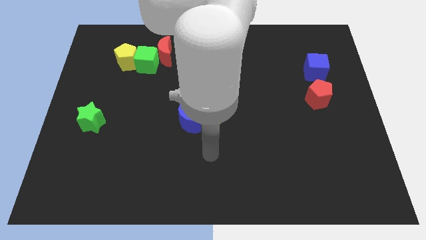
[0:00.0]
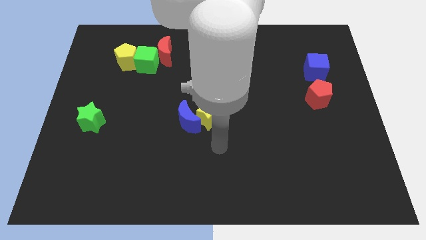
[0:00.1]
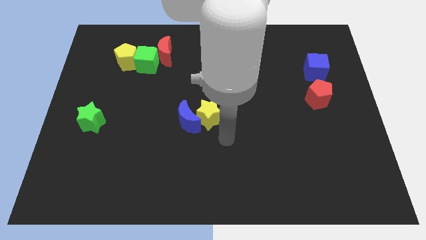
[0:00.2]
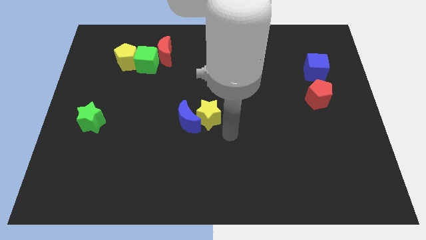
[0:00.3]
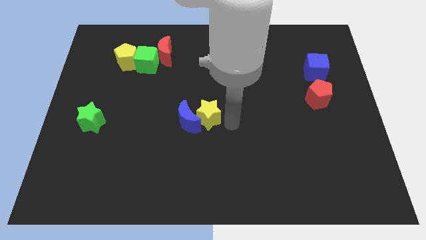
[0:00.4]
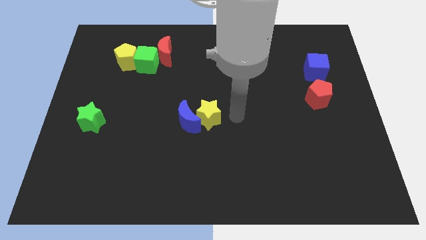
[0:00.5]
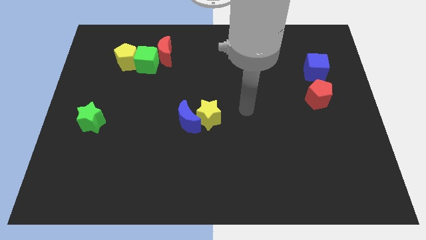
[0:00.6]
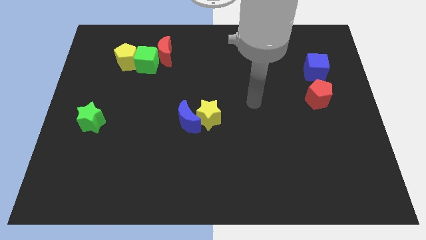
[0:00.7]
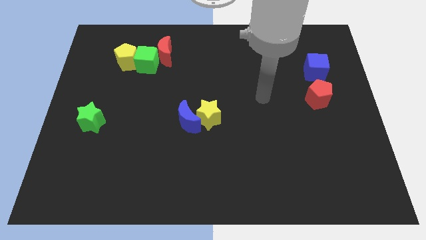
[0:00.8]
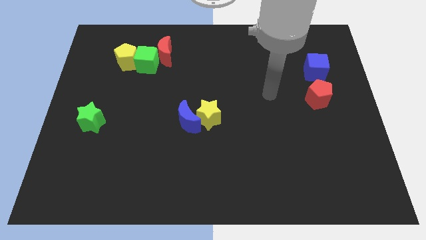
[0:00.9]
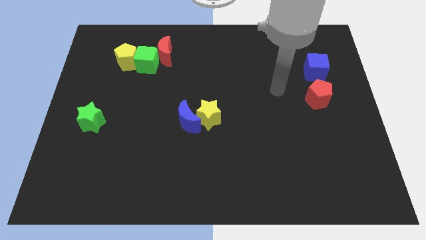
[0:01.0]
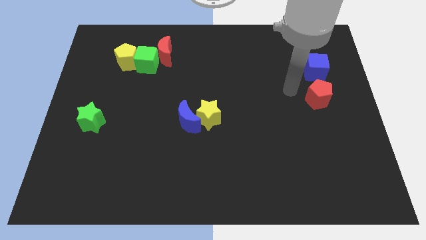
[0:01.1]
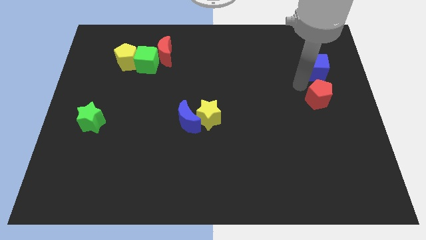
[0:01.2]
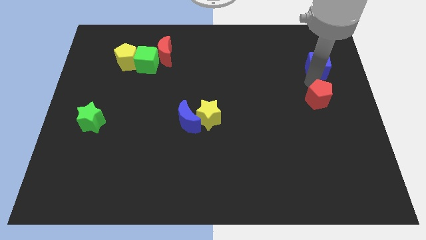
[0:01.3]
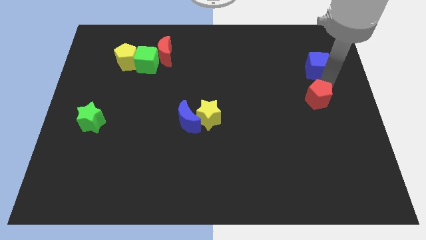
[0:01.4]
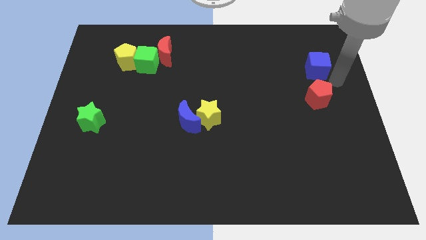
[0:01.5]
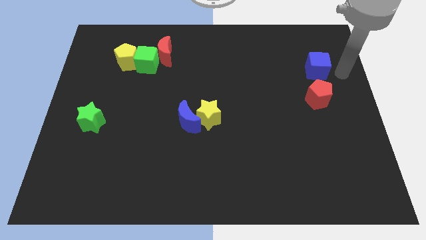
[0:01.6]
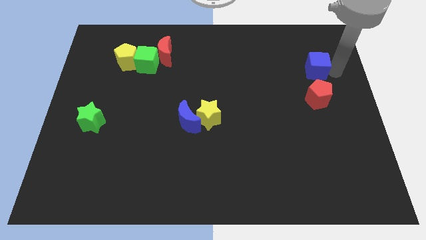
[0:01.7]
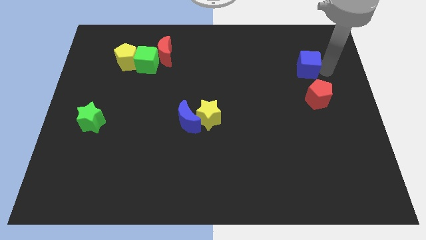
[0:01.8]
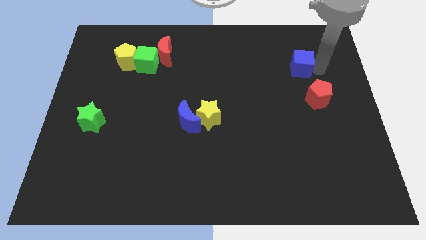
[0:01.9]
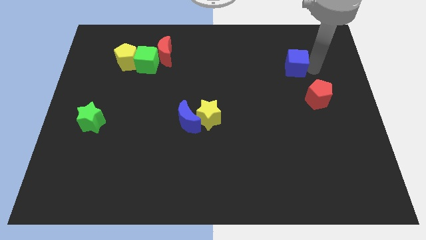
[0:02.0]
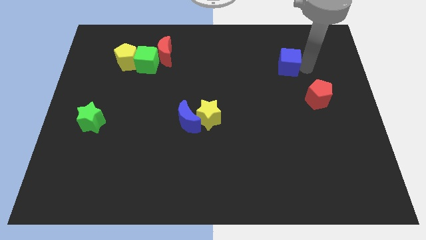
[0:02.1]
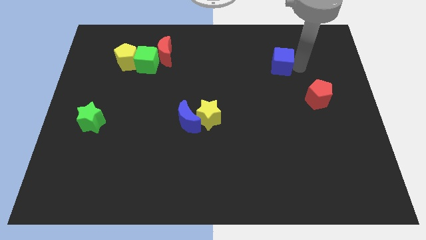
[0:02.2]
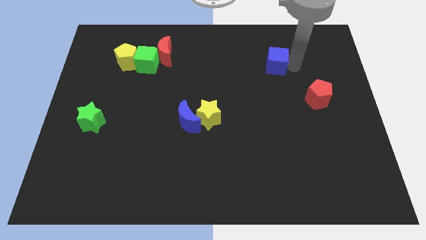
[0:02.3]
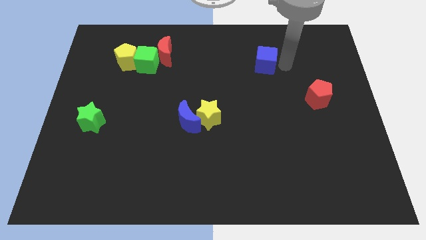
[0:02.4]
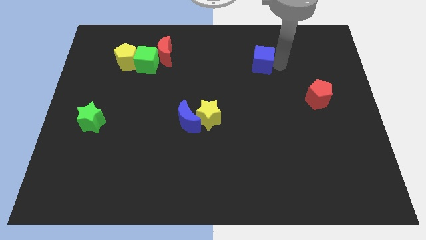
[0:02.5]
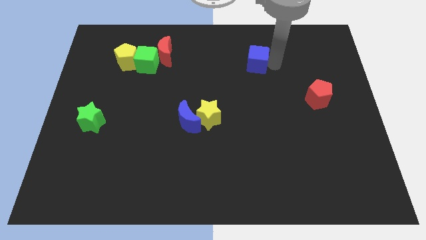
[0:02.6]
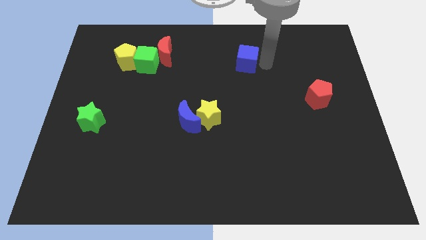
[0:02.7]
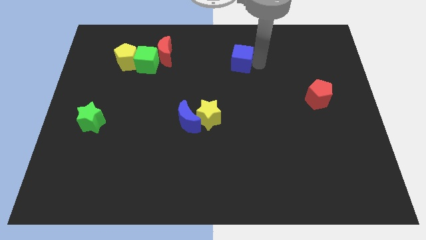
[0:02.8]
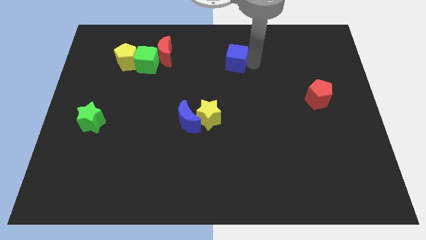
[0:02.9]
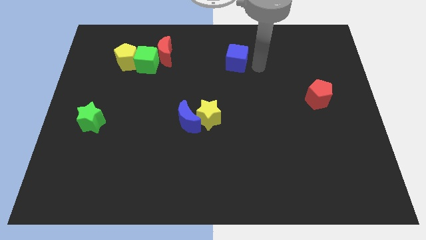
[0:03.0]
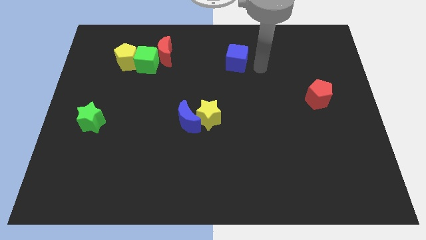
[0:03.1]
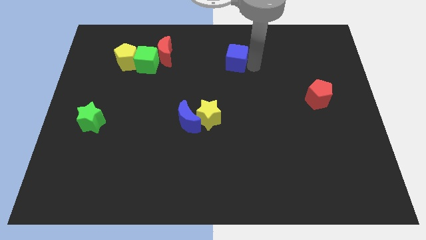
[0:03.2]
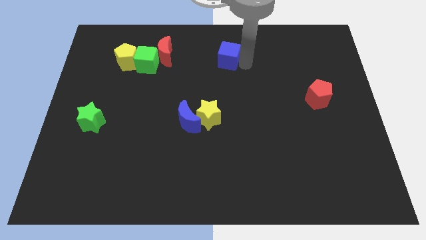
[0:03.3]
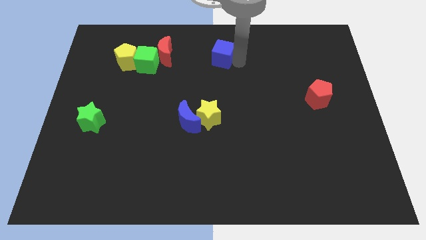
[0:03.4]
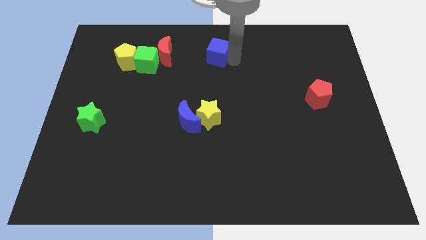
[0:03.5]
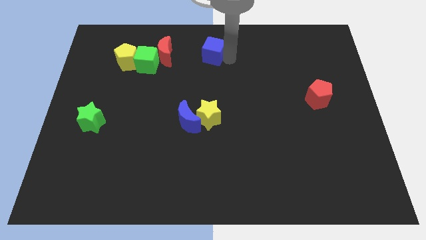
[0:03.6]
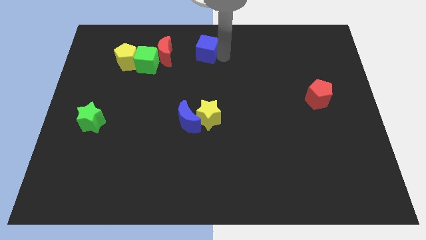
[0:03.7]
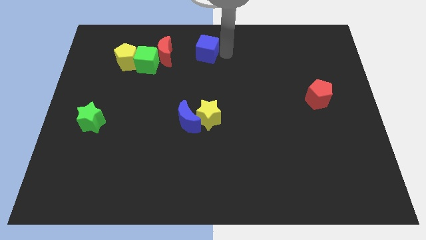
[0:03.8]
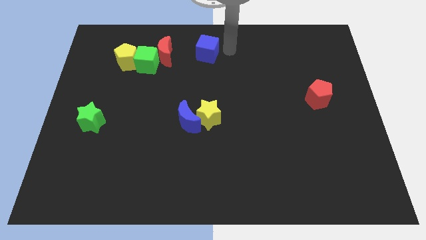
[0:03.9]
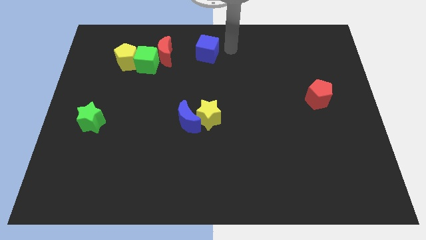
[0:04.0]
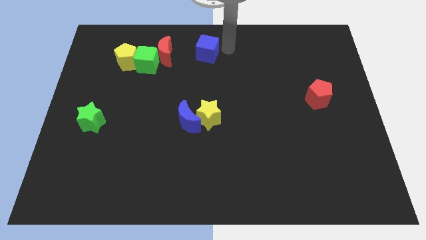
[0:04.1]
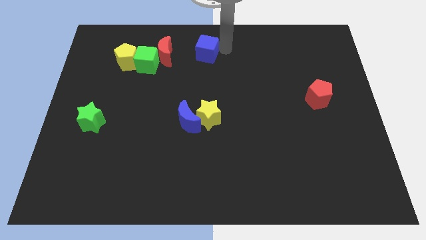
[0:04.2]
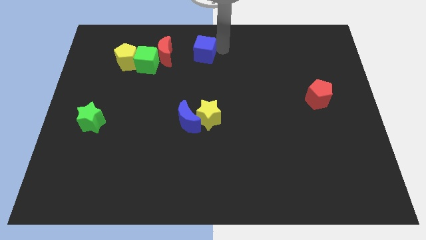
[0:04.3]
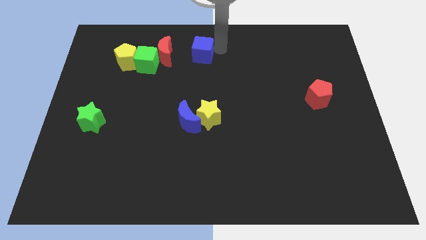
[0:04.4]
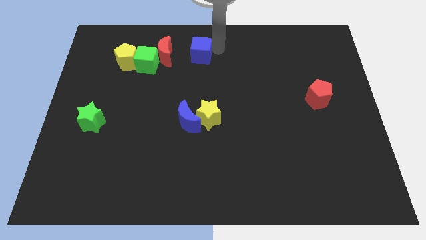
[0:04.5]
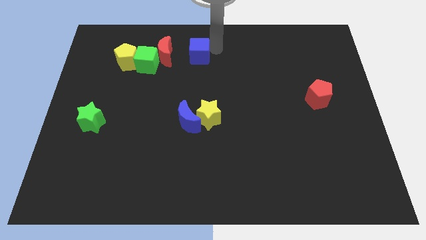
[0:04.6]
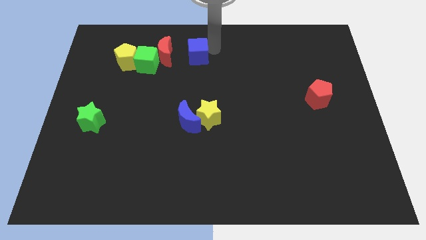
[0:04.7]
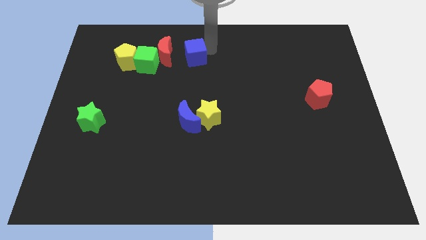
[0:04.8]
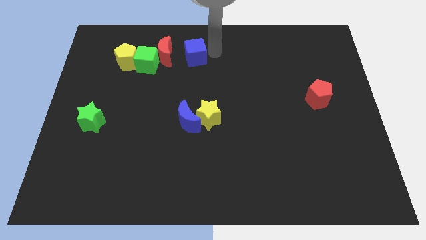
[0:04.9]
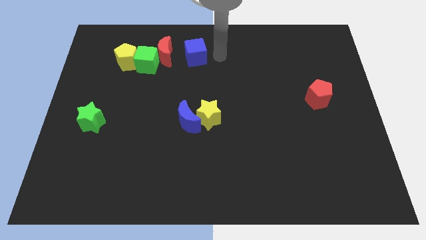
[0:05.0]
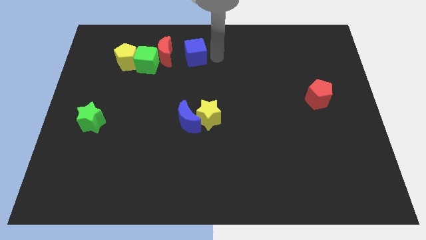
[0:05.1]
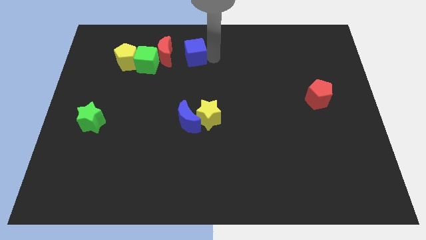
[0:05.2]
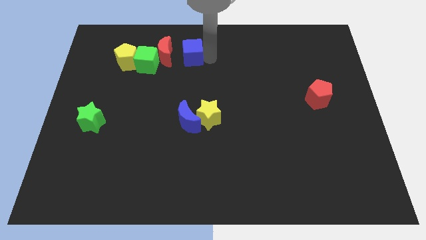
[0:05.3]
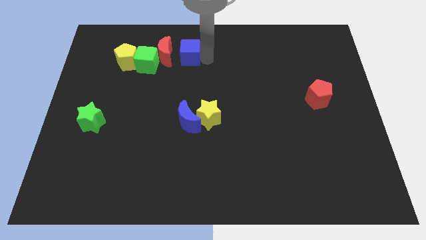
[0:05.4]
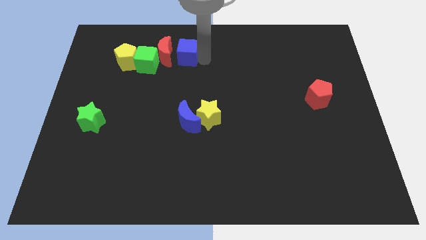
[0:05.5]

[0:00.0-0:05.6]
slide the blue cube towards the red moon

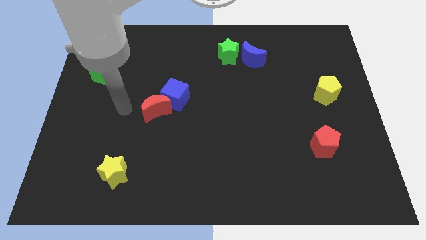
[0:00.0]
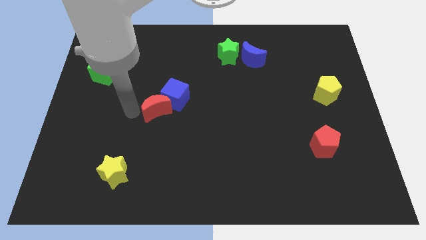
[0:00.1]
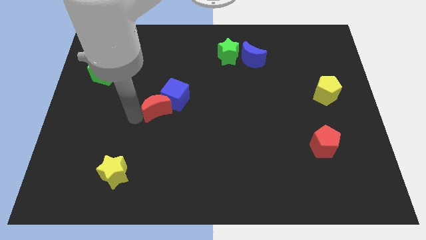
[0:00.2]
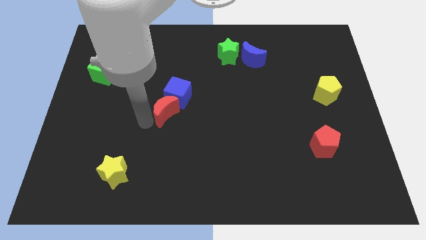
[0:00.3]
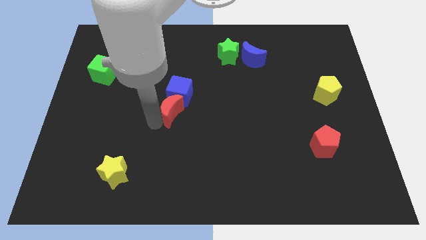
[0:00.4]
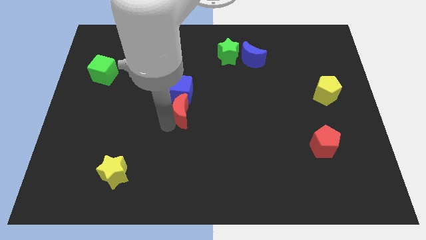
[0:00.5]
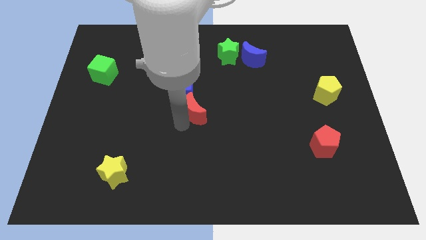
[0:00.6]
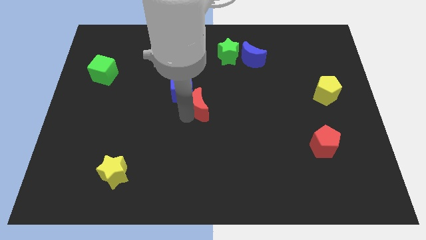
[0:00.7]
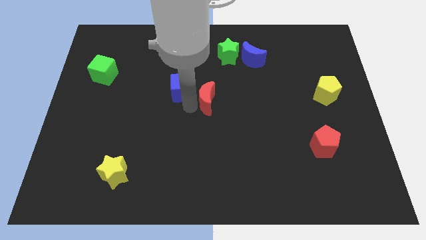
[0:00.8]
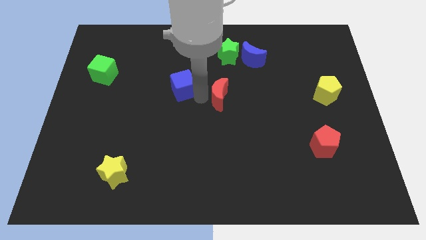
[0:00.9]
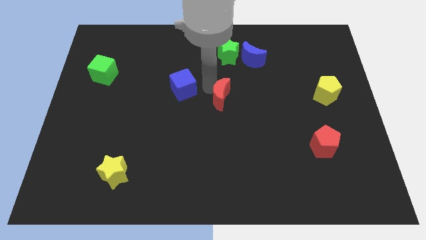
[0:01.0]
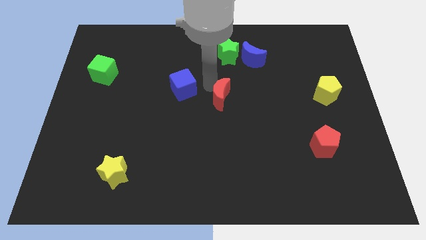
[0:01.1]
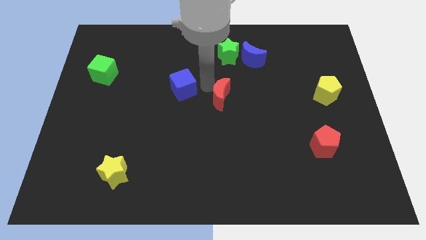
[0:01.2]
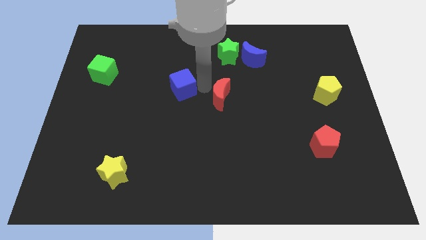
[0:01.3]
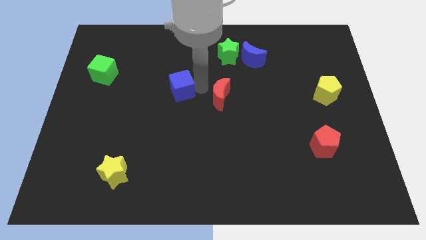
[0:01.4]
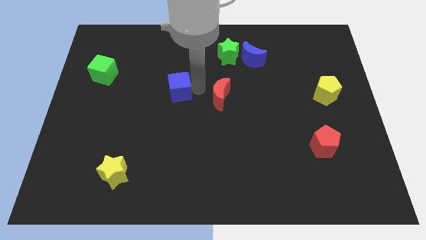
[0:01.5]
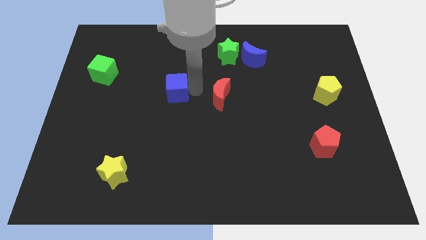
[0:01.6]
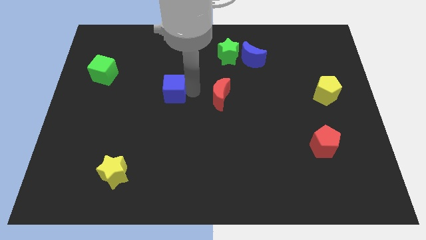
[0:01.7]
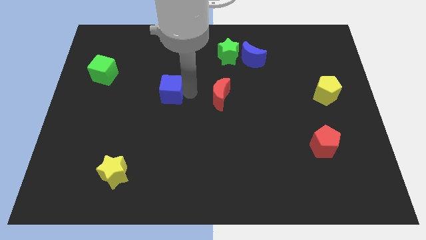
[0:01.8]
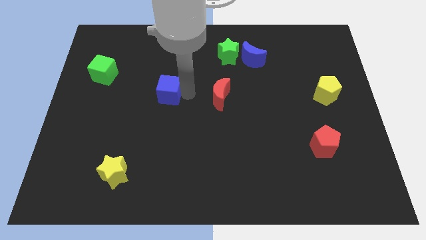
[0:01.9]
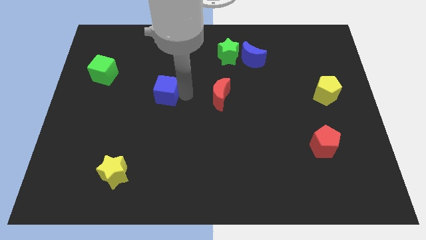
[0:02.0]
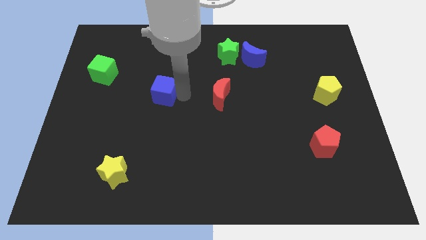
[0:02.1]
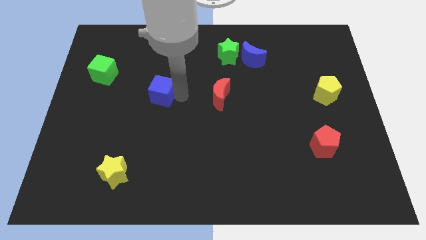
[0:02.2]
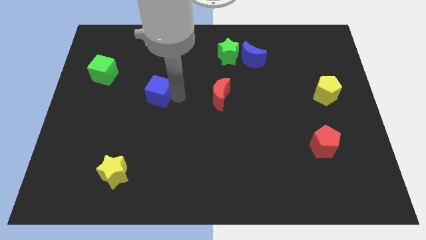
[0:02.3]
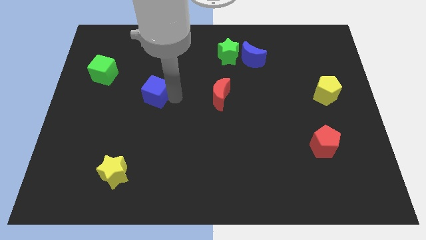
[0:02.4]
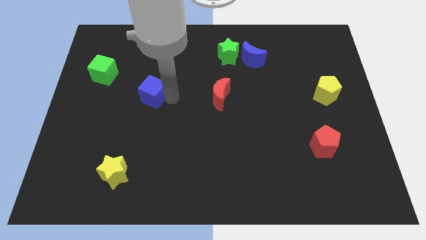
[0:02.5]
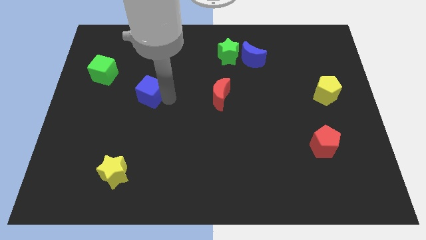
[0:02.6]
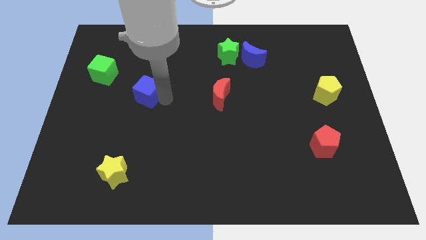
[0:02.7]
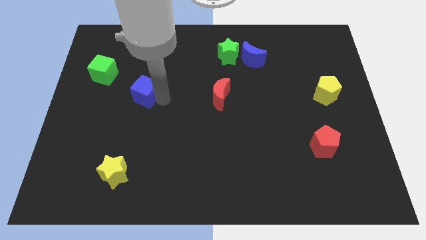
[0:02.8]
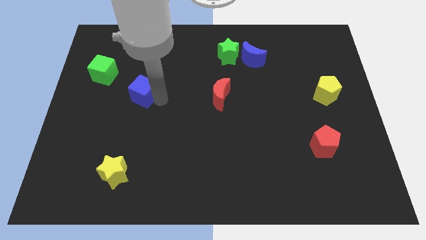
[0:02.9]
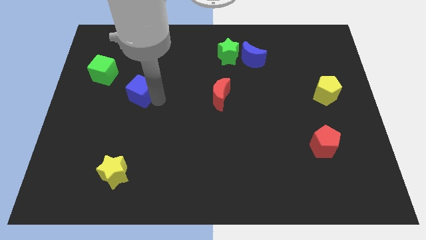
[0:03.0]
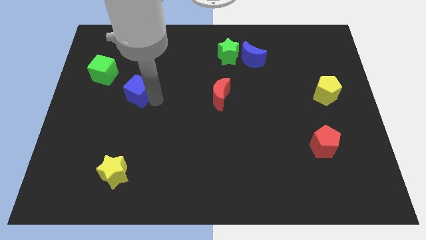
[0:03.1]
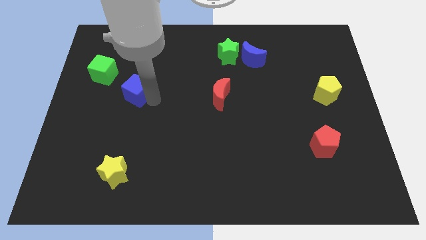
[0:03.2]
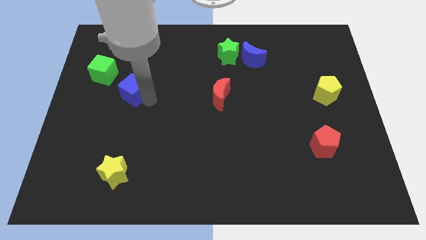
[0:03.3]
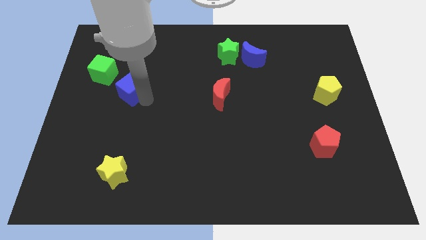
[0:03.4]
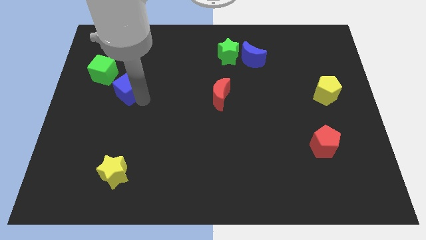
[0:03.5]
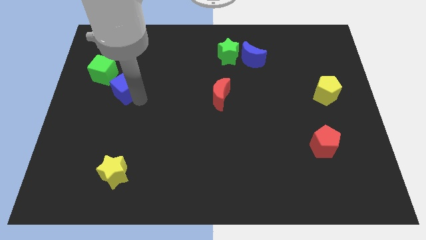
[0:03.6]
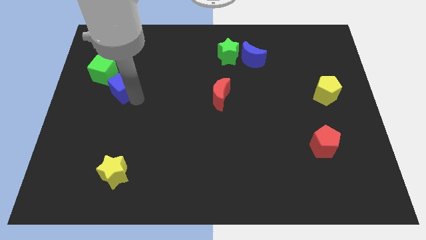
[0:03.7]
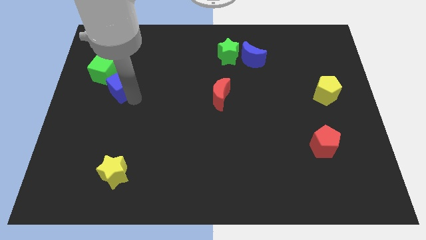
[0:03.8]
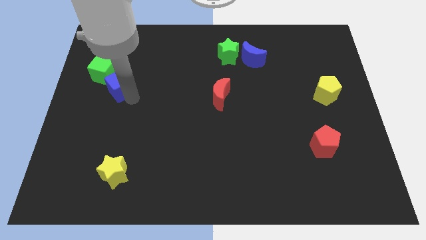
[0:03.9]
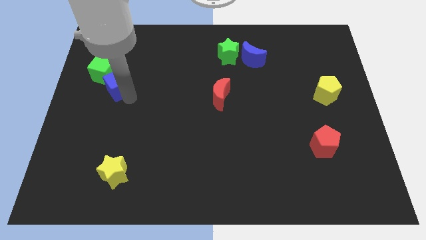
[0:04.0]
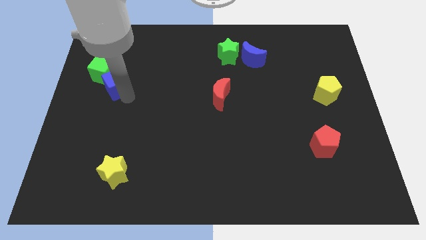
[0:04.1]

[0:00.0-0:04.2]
move the blue cube to the green cube
